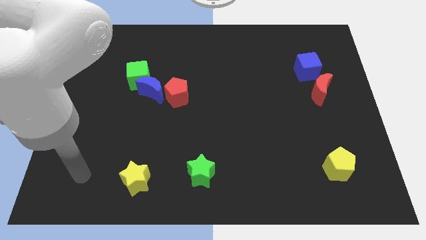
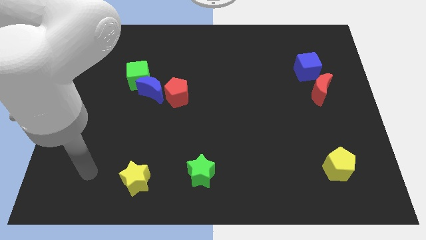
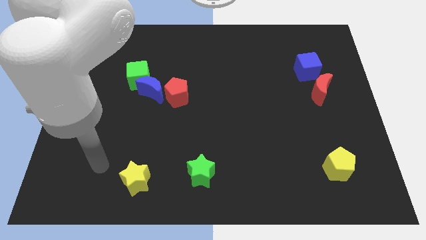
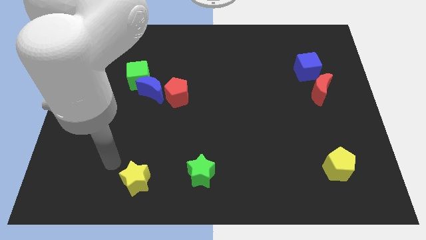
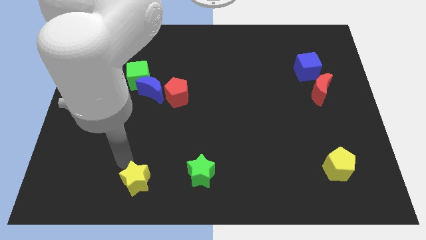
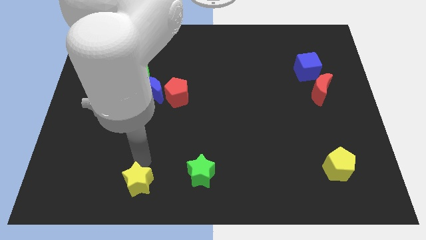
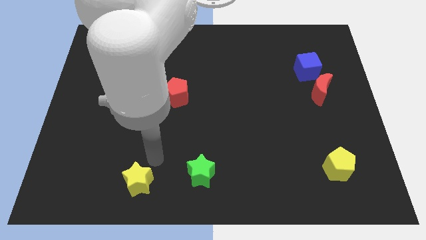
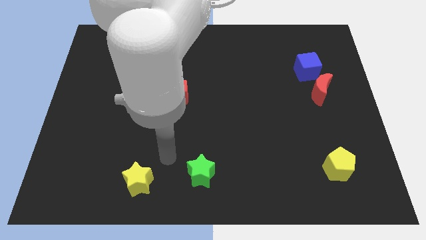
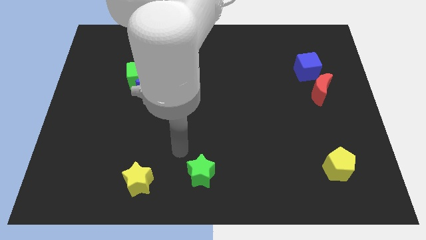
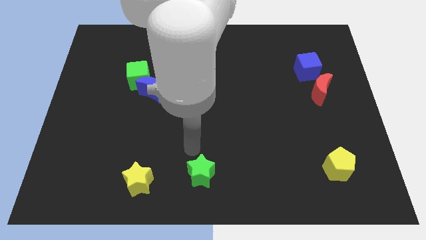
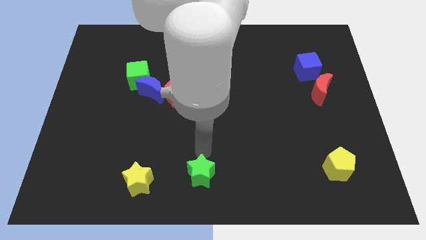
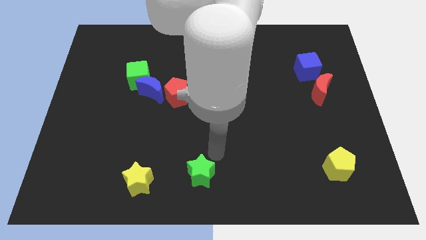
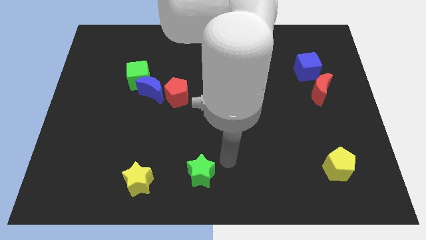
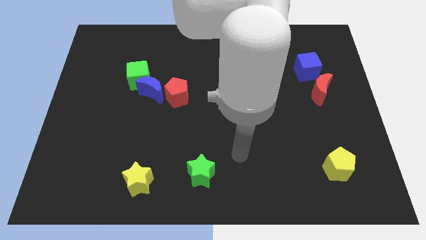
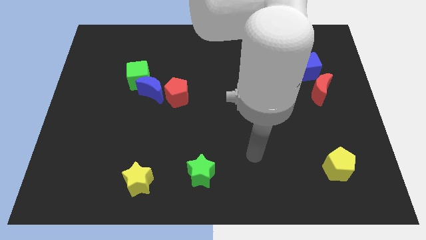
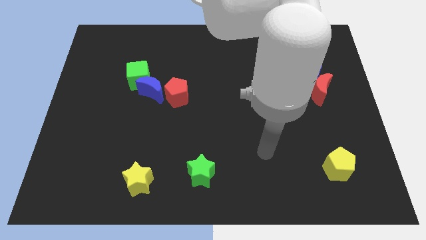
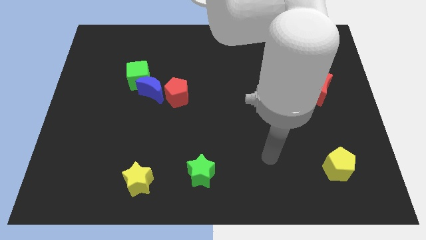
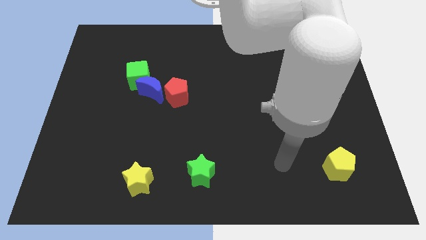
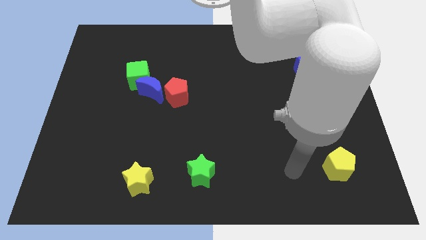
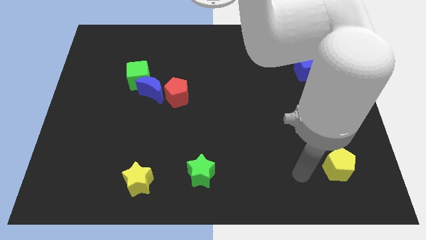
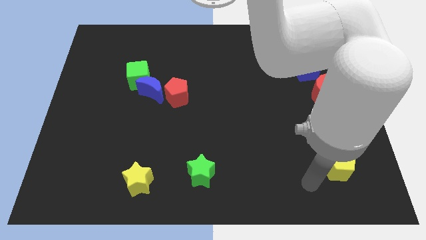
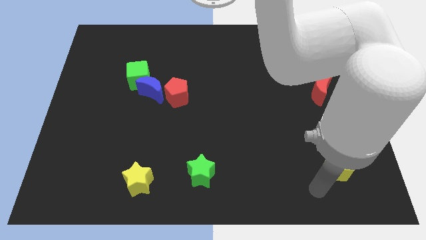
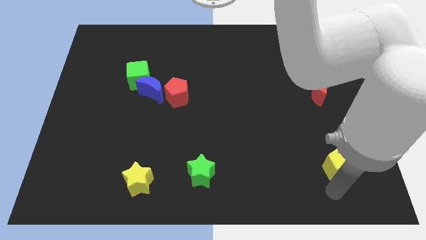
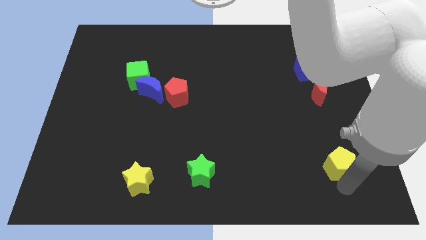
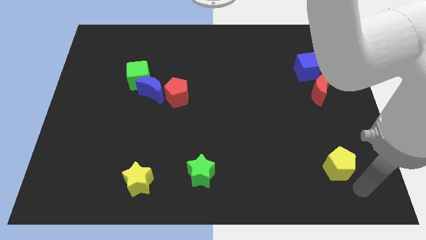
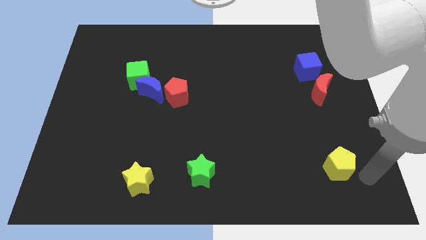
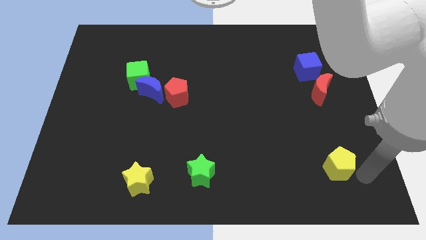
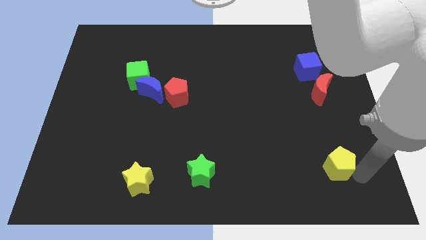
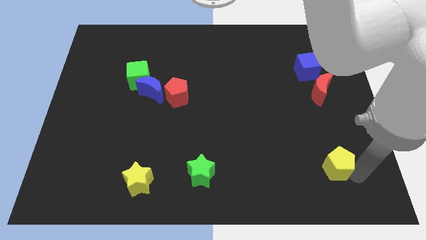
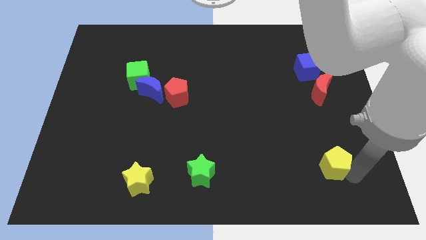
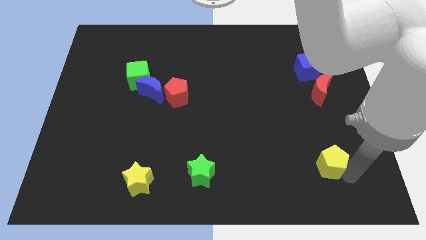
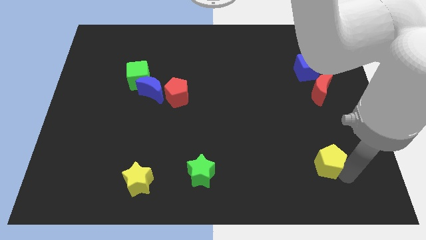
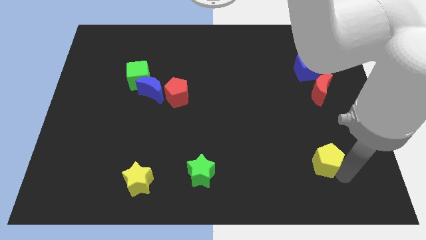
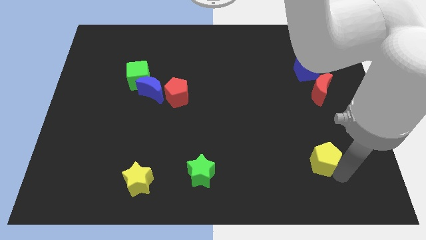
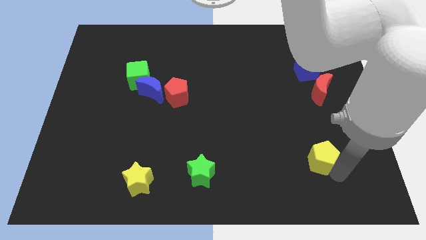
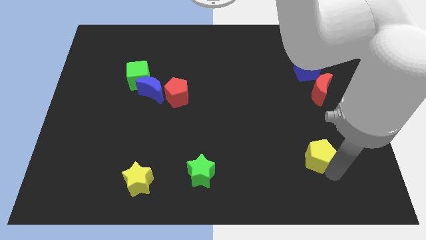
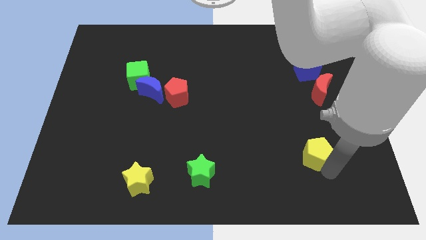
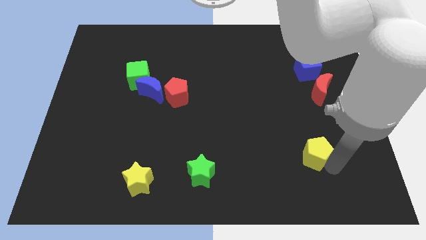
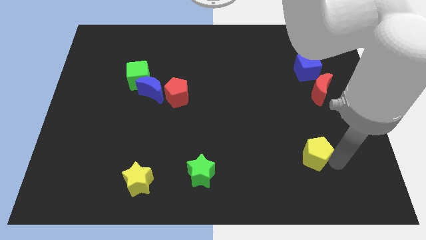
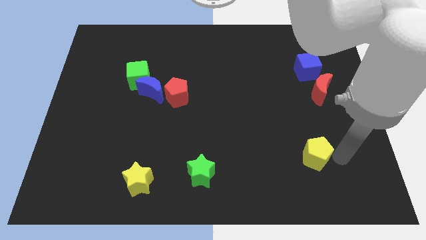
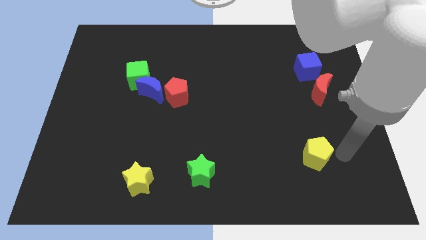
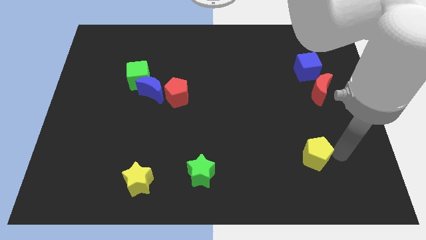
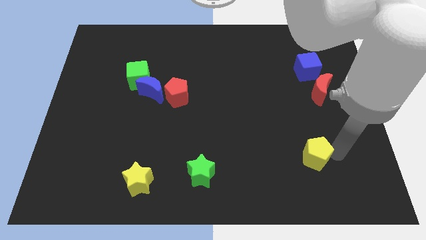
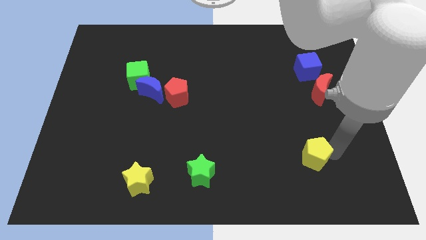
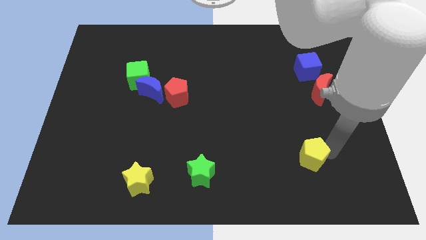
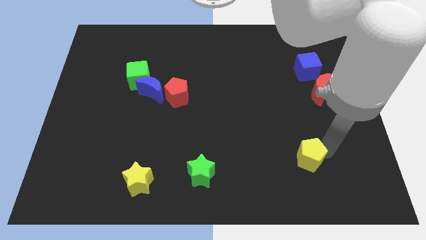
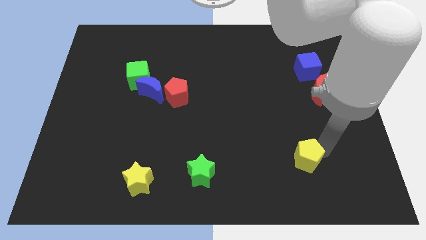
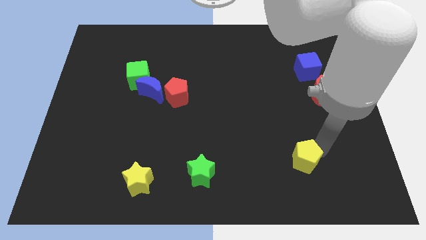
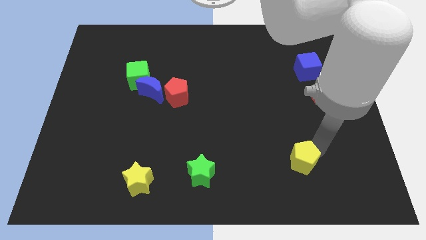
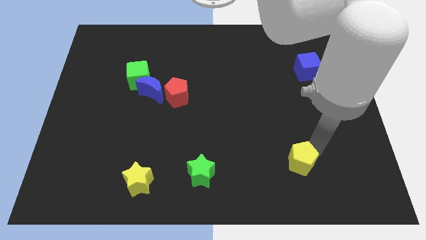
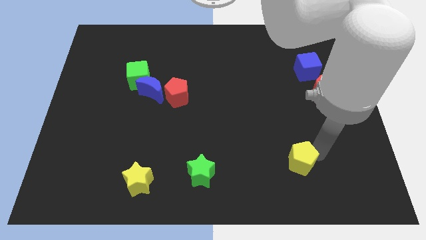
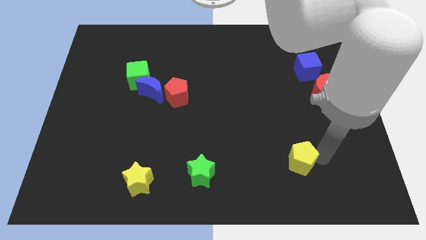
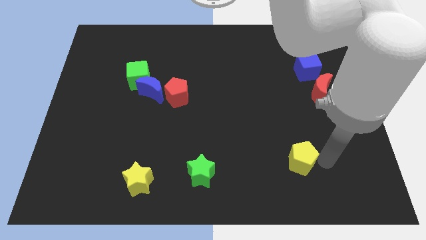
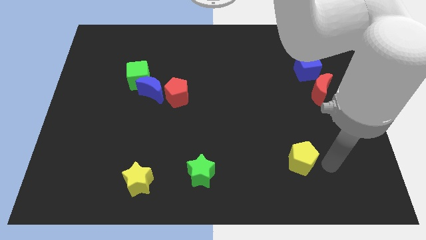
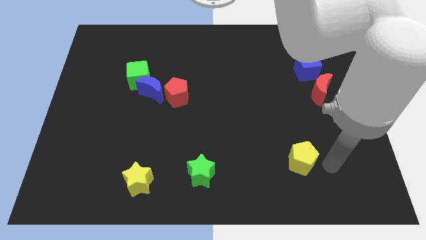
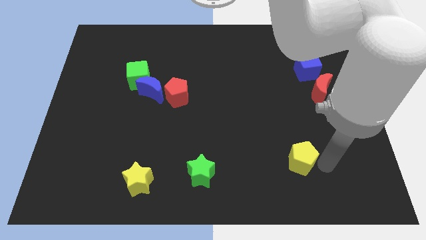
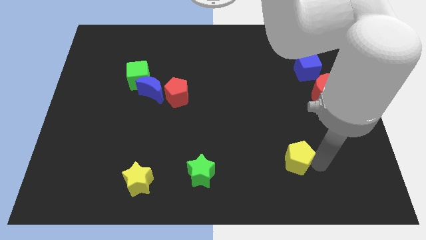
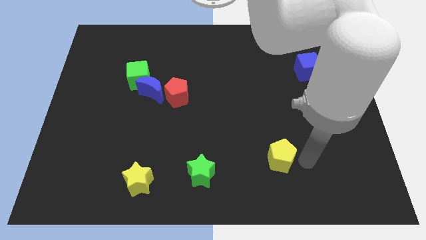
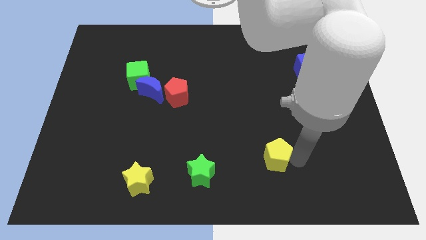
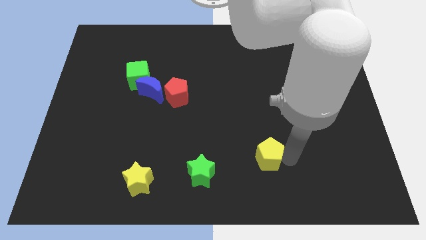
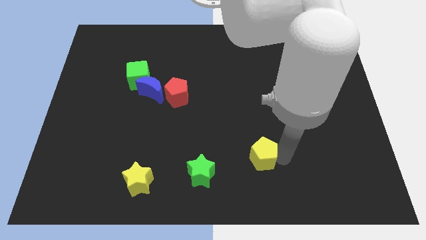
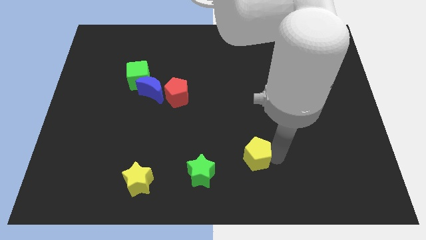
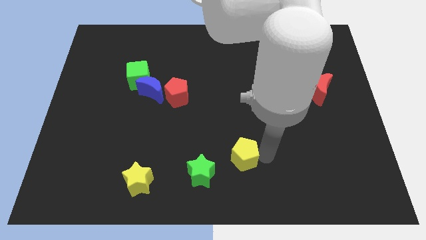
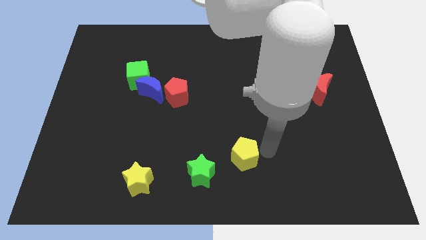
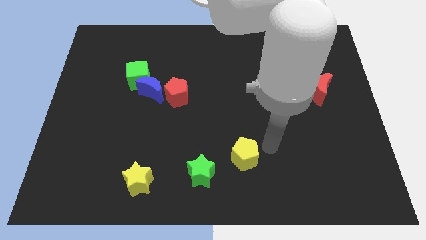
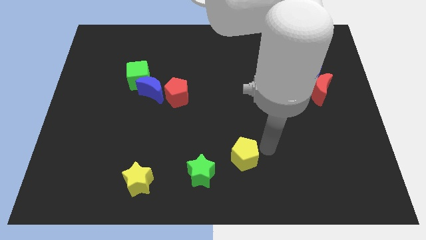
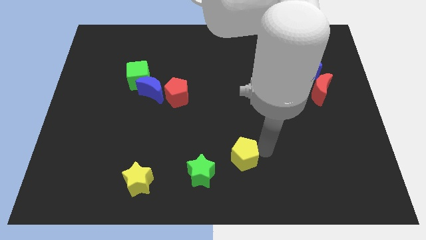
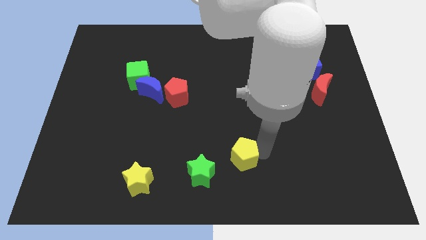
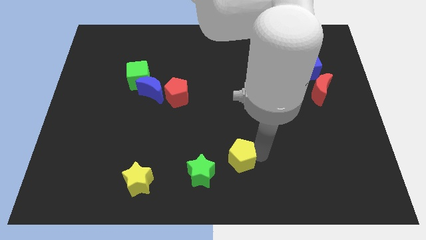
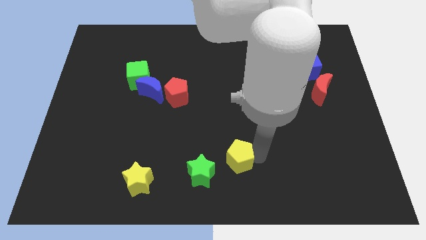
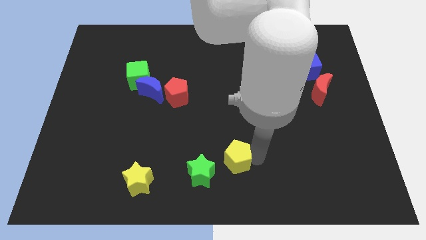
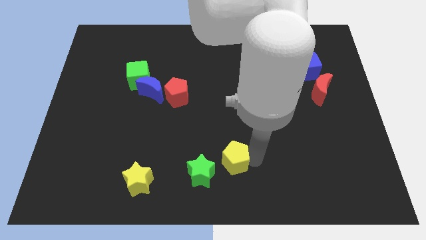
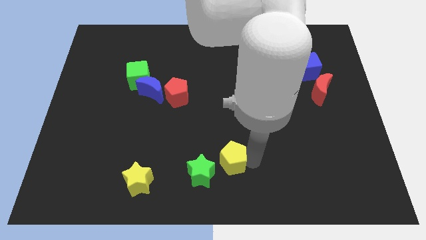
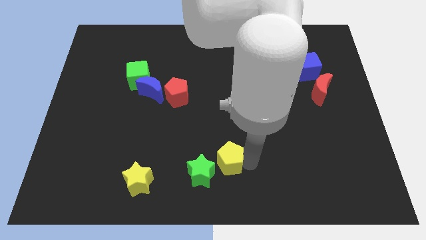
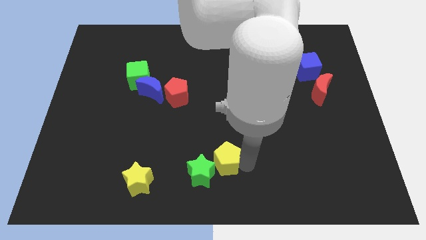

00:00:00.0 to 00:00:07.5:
put the yellow pentagon close to the green star

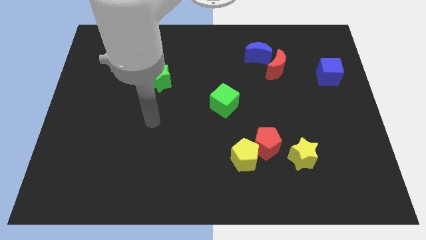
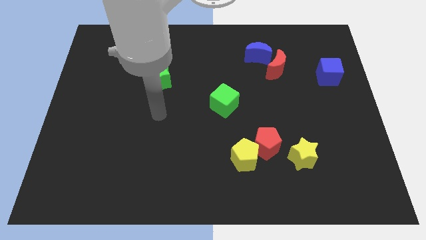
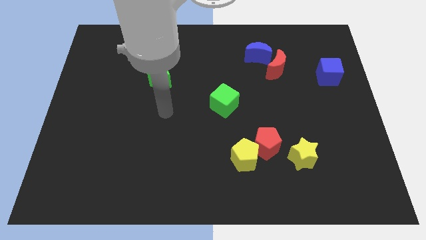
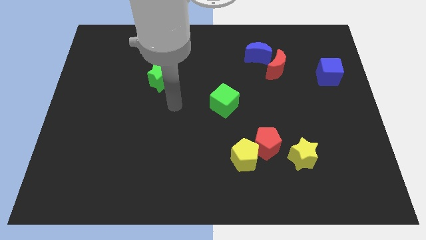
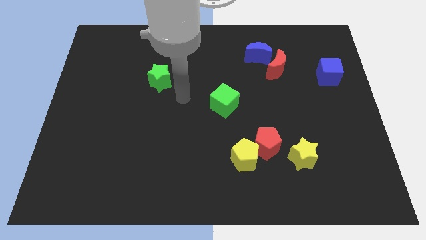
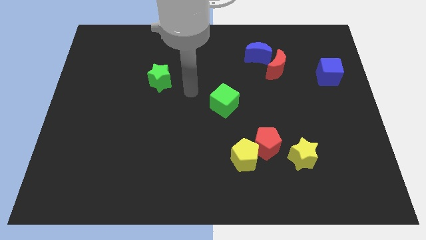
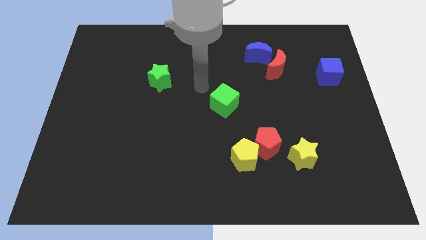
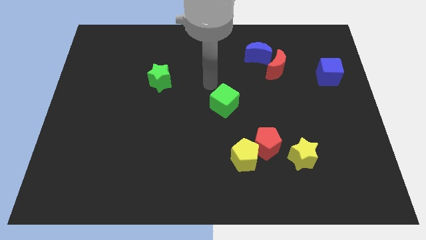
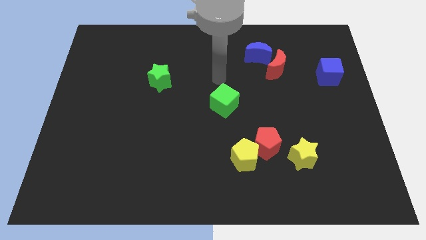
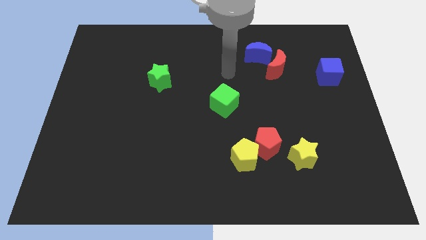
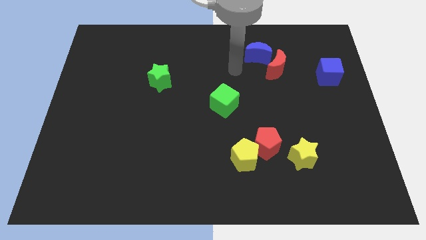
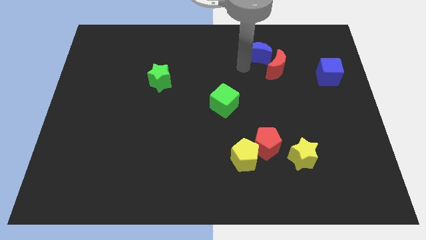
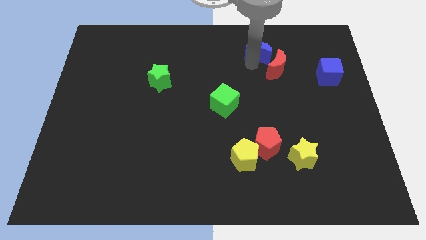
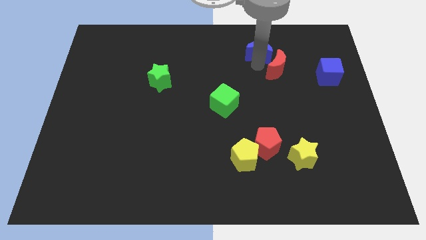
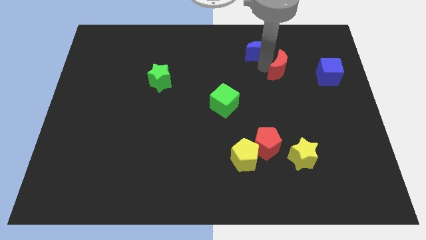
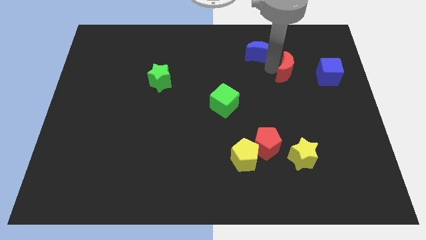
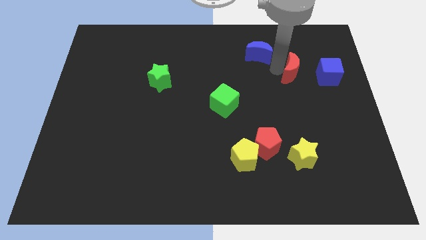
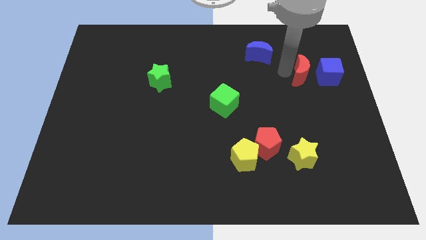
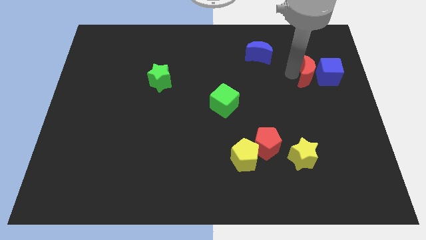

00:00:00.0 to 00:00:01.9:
put the red moon close to the blue cube
